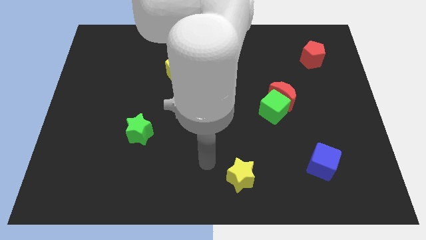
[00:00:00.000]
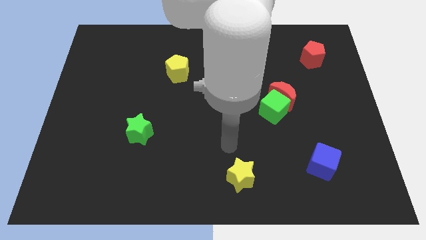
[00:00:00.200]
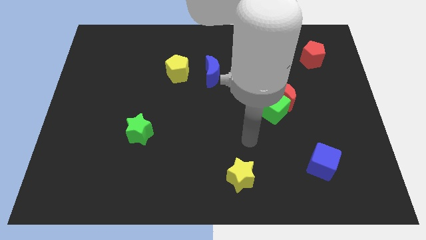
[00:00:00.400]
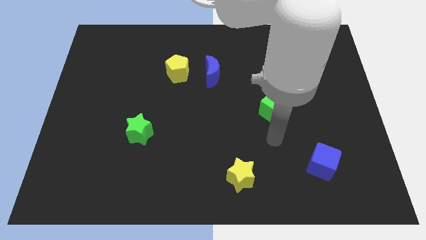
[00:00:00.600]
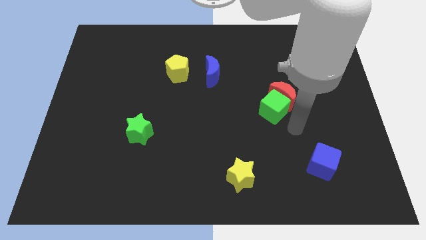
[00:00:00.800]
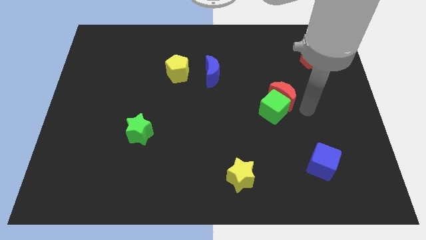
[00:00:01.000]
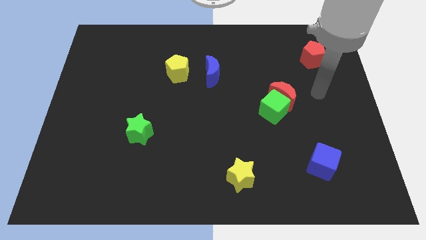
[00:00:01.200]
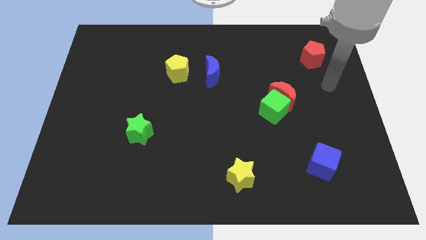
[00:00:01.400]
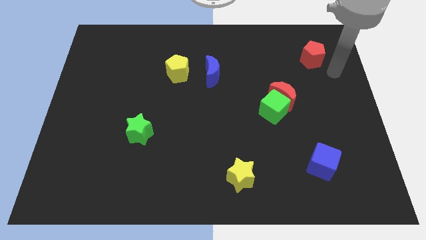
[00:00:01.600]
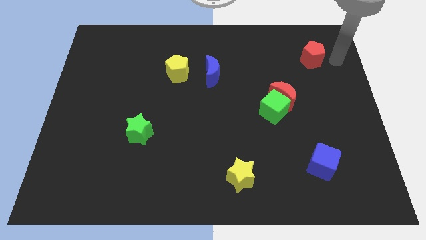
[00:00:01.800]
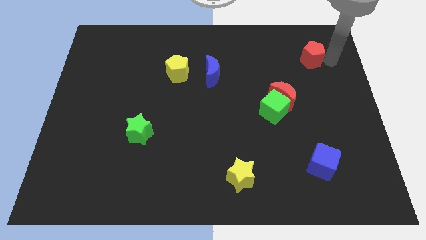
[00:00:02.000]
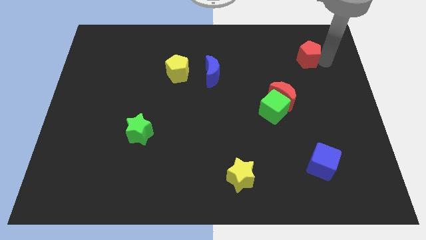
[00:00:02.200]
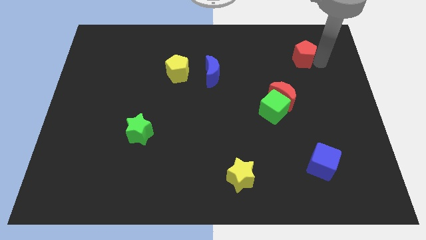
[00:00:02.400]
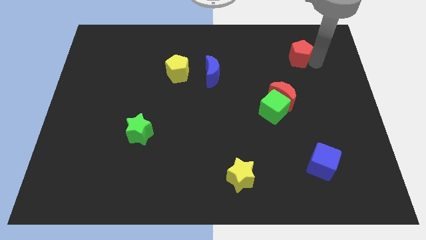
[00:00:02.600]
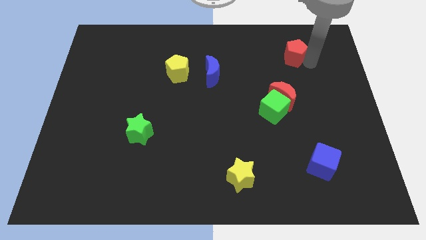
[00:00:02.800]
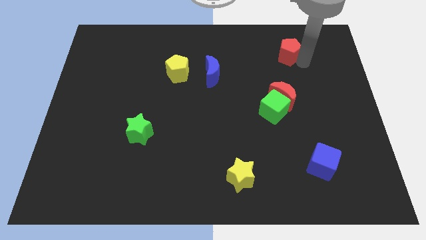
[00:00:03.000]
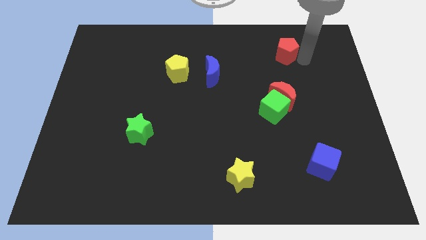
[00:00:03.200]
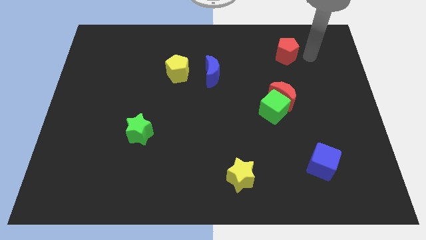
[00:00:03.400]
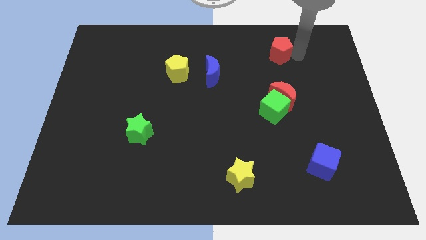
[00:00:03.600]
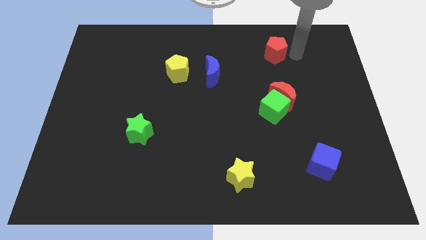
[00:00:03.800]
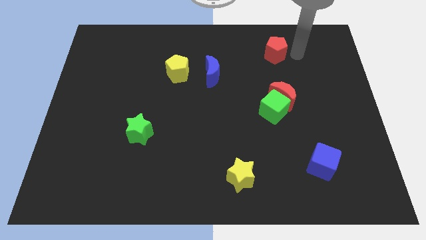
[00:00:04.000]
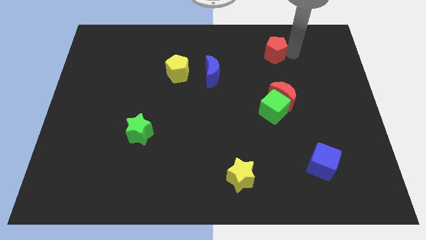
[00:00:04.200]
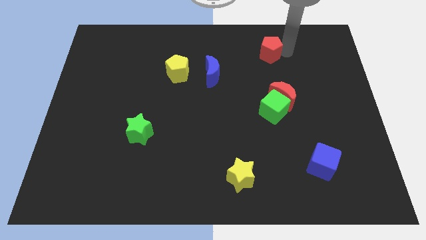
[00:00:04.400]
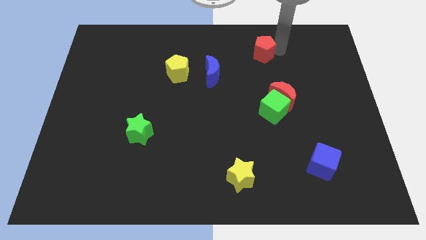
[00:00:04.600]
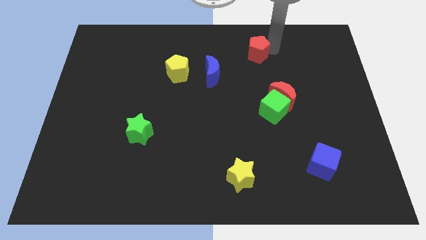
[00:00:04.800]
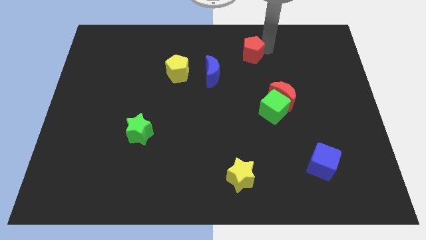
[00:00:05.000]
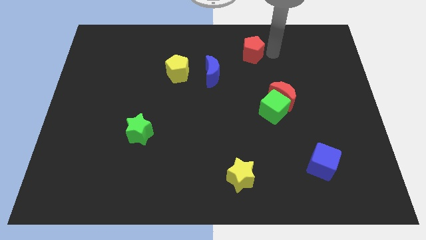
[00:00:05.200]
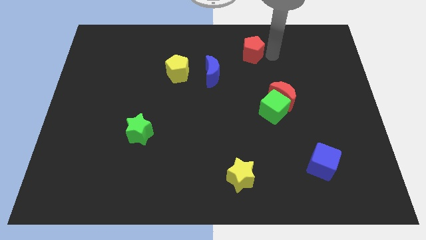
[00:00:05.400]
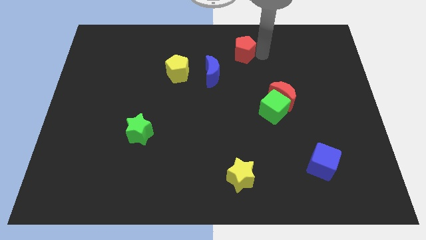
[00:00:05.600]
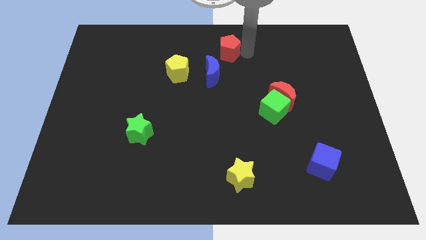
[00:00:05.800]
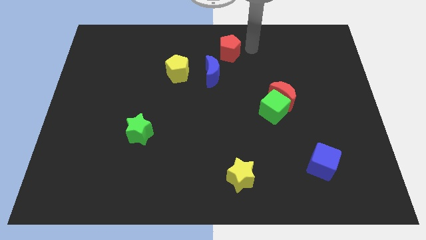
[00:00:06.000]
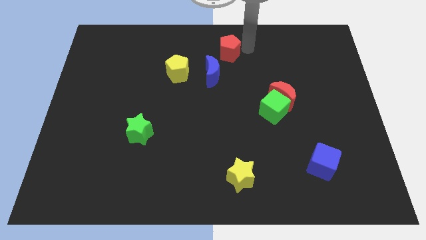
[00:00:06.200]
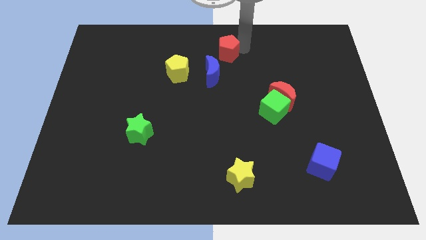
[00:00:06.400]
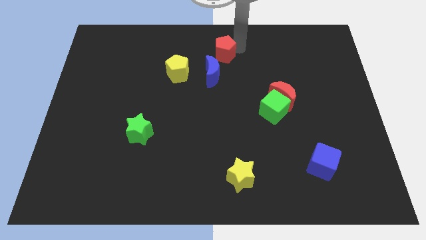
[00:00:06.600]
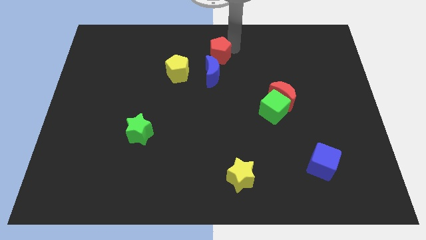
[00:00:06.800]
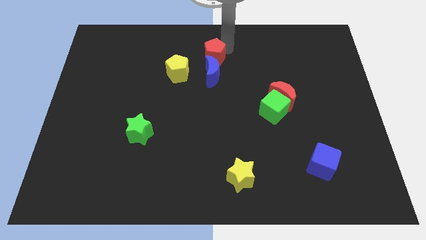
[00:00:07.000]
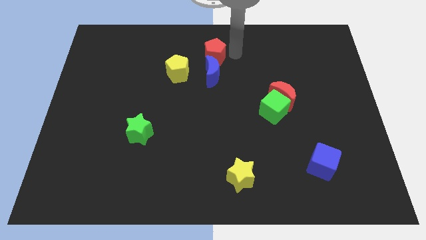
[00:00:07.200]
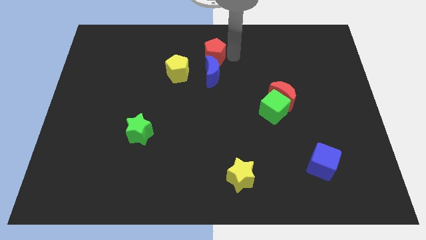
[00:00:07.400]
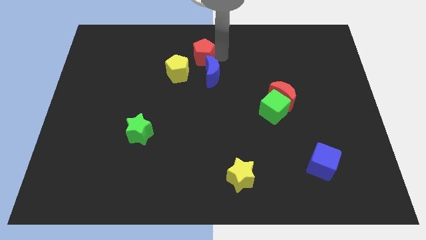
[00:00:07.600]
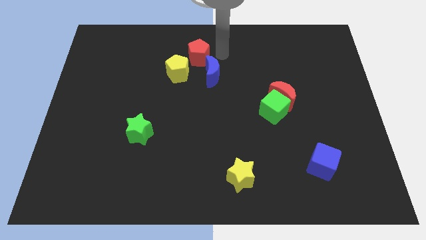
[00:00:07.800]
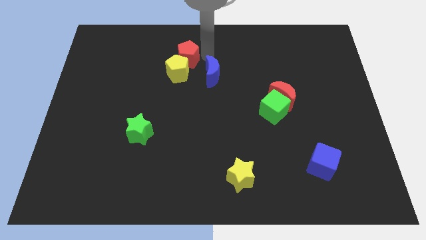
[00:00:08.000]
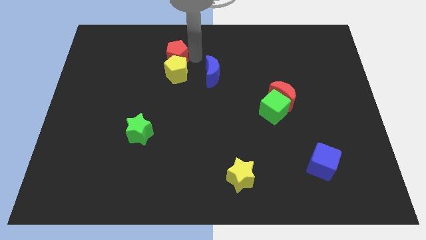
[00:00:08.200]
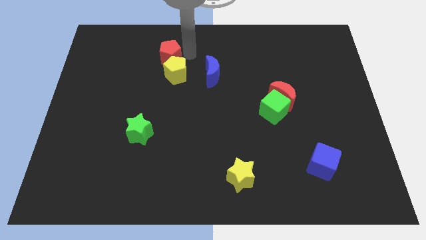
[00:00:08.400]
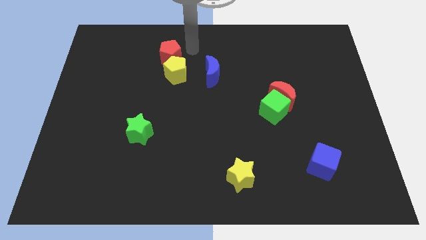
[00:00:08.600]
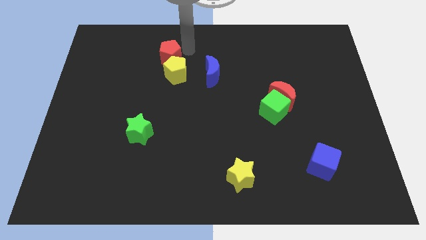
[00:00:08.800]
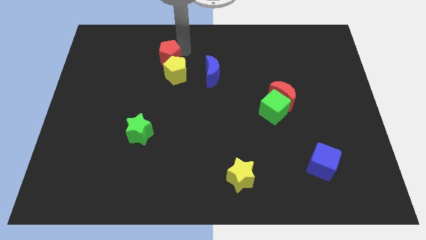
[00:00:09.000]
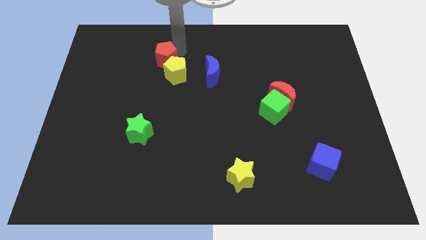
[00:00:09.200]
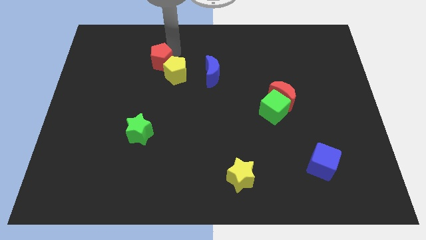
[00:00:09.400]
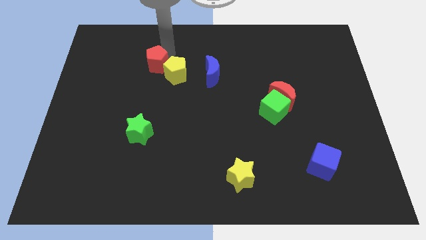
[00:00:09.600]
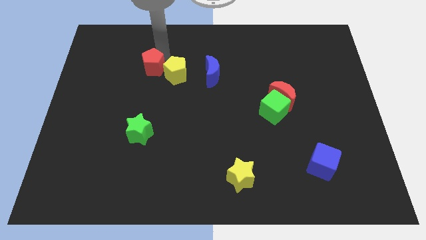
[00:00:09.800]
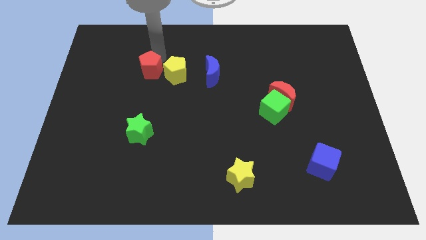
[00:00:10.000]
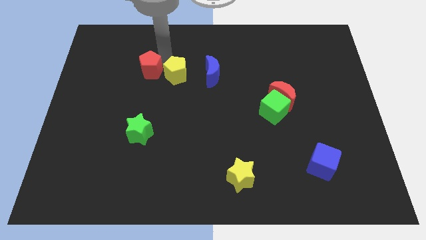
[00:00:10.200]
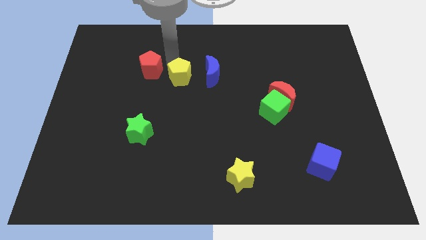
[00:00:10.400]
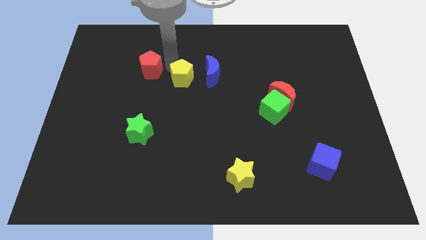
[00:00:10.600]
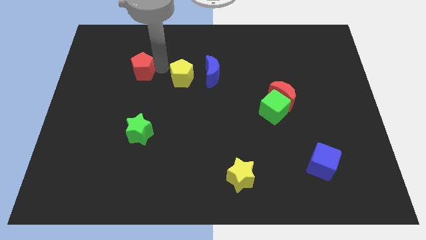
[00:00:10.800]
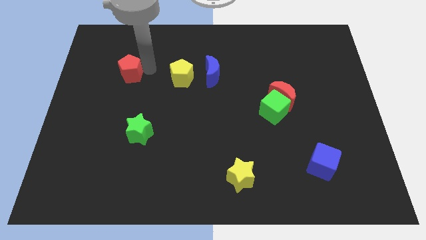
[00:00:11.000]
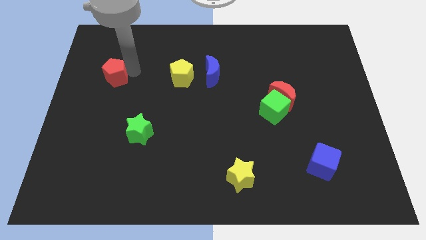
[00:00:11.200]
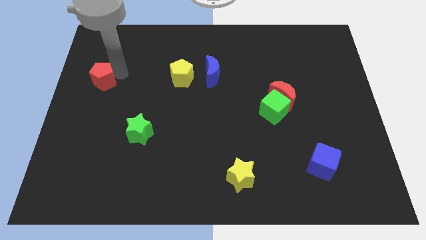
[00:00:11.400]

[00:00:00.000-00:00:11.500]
slide the red pentagon to the left side

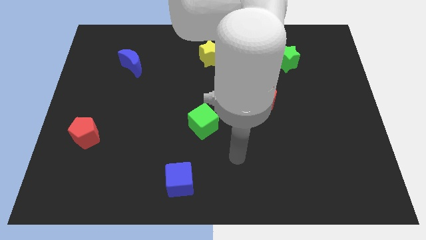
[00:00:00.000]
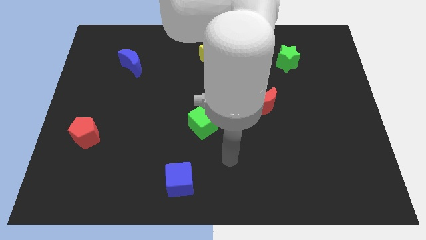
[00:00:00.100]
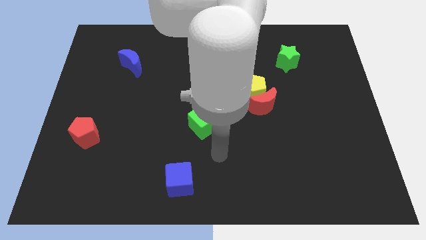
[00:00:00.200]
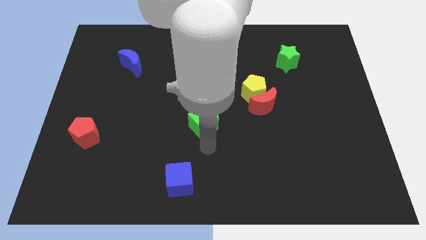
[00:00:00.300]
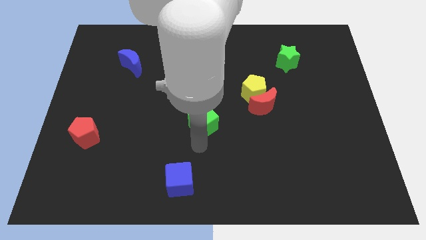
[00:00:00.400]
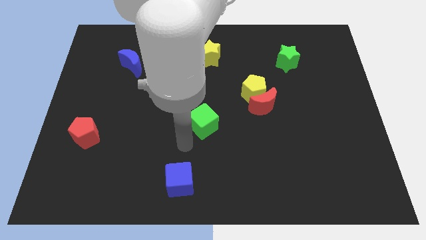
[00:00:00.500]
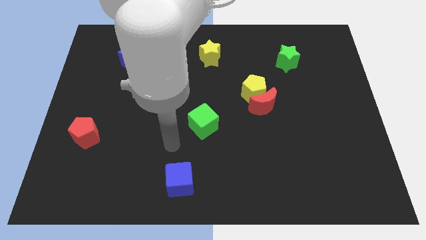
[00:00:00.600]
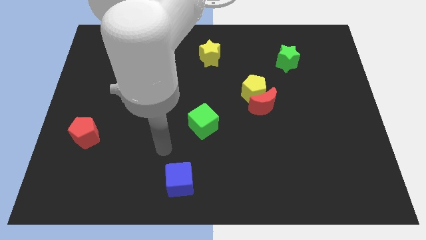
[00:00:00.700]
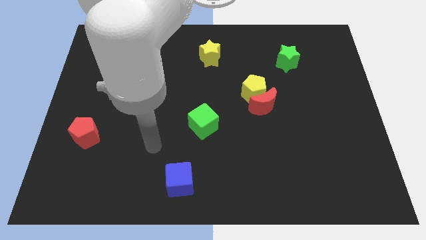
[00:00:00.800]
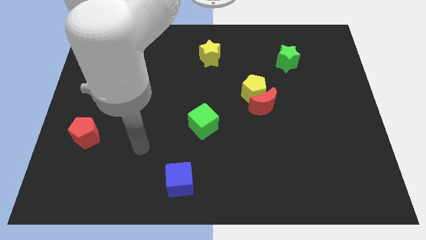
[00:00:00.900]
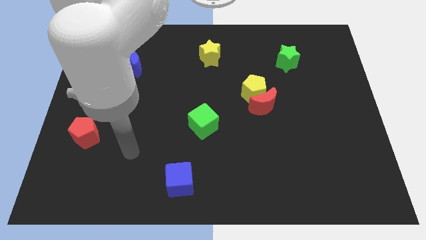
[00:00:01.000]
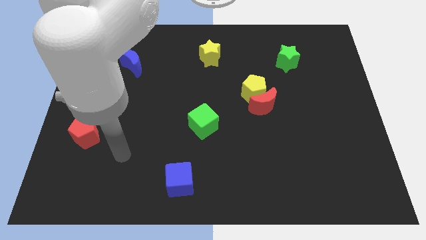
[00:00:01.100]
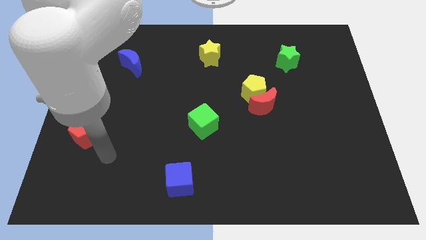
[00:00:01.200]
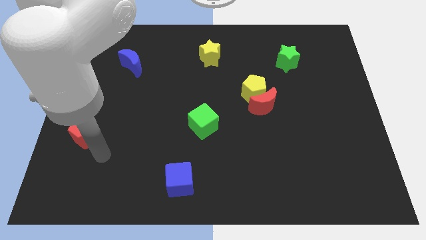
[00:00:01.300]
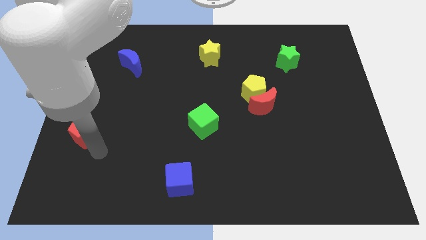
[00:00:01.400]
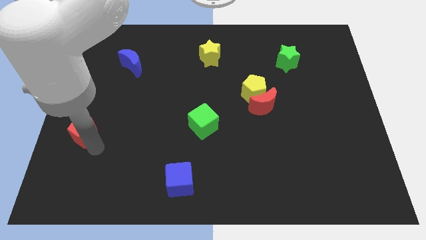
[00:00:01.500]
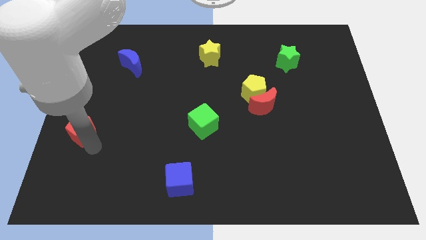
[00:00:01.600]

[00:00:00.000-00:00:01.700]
put the red pentagon to the left side of the board
